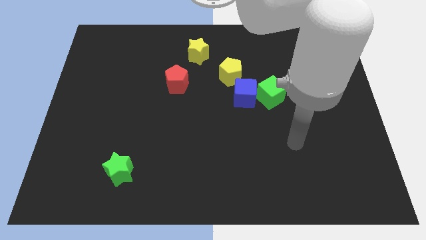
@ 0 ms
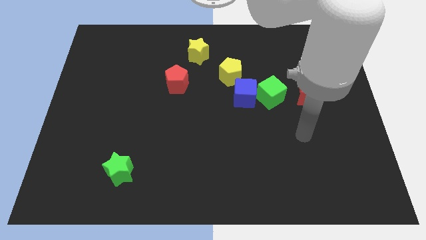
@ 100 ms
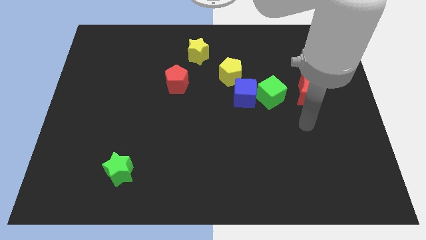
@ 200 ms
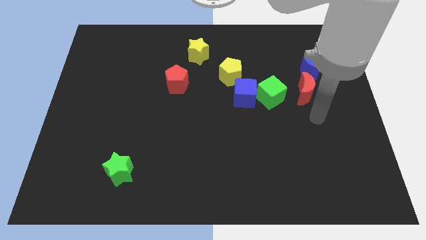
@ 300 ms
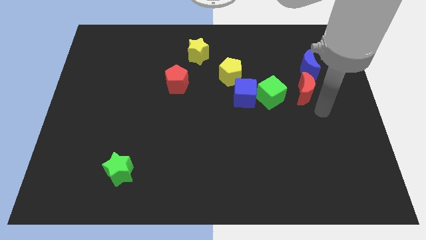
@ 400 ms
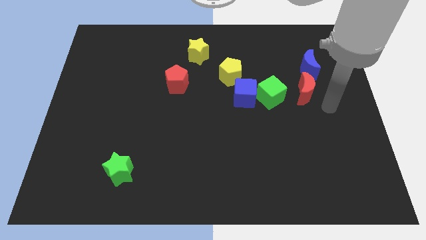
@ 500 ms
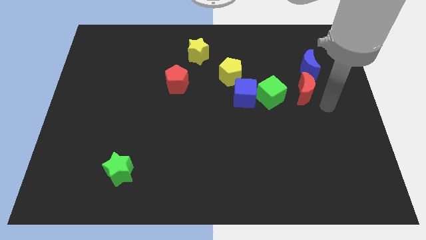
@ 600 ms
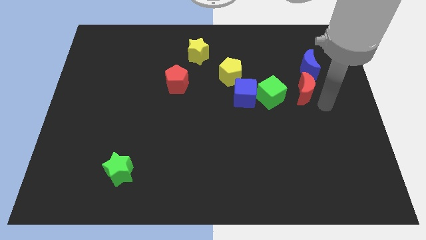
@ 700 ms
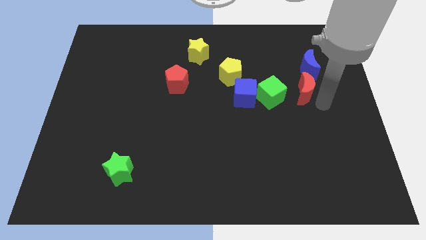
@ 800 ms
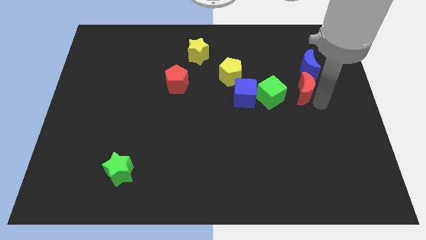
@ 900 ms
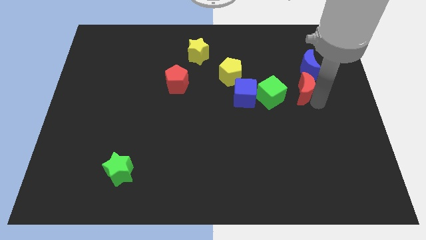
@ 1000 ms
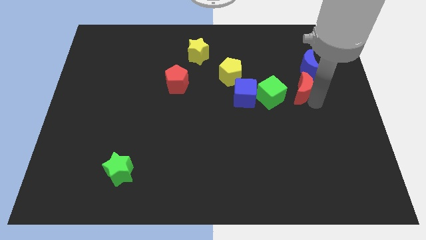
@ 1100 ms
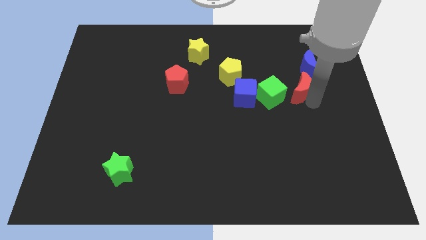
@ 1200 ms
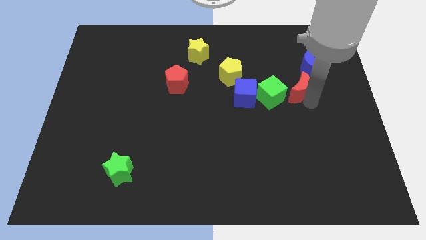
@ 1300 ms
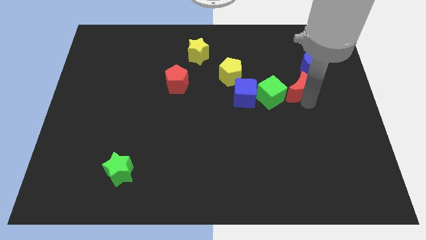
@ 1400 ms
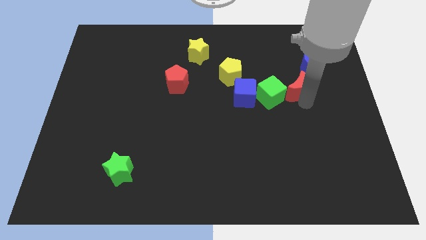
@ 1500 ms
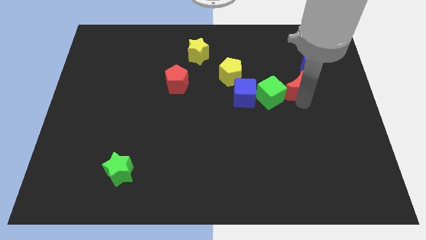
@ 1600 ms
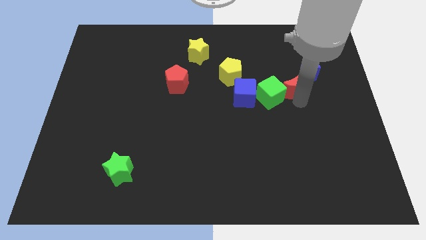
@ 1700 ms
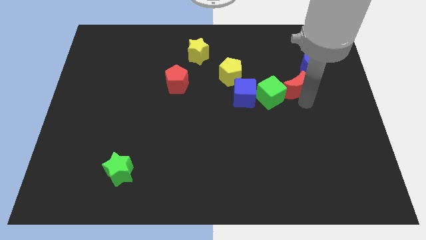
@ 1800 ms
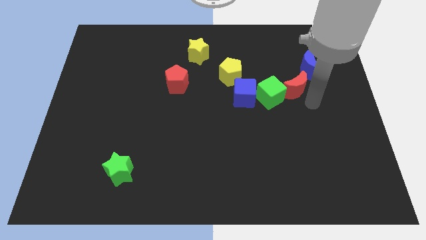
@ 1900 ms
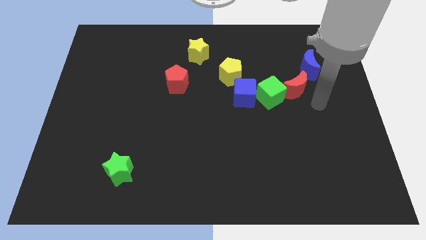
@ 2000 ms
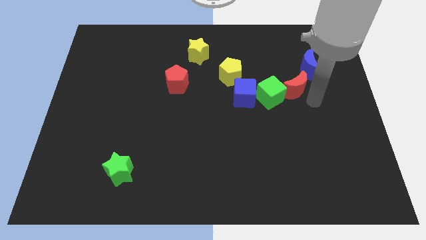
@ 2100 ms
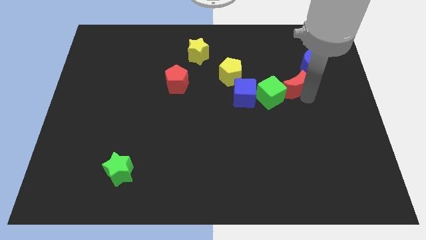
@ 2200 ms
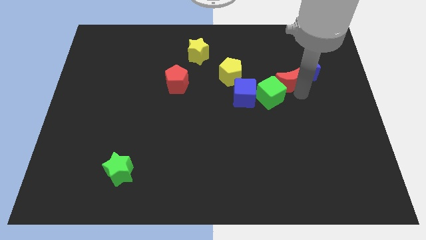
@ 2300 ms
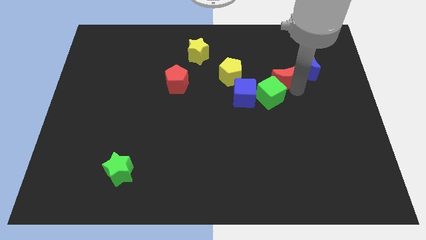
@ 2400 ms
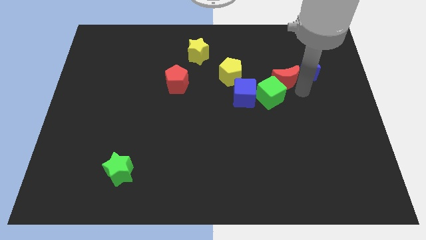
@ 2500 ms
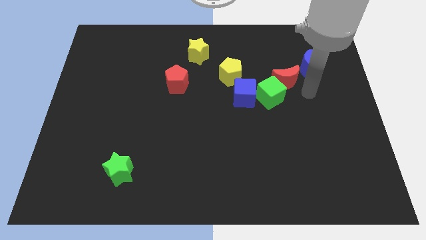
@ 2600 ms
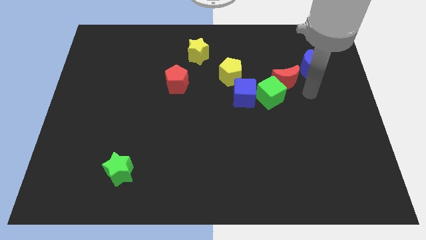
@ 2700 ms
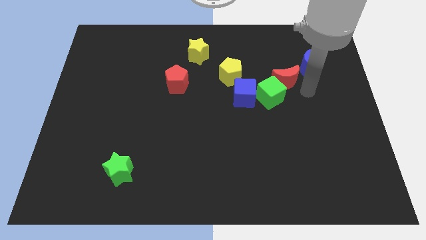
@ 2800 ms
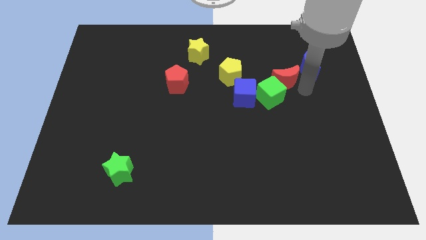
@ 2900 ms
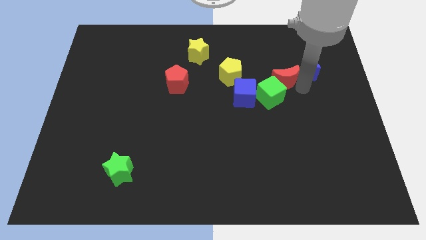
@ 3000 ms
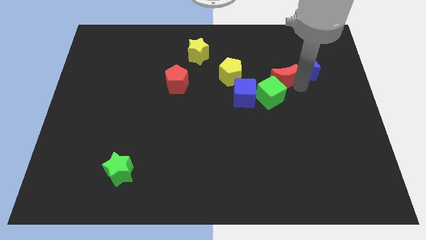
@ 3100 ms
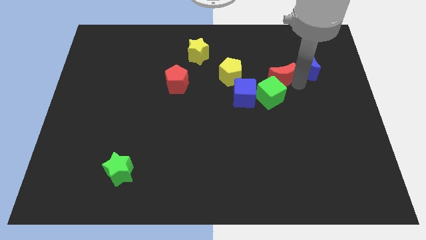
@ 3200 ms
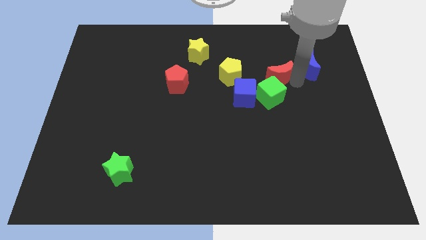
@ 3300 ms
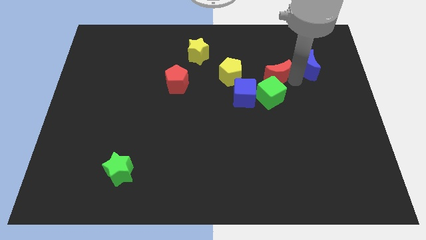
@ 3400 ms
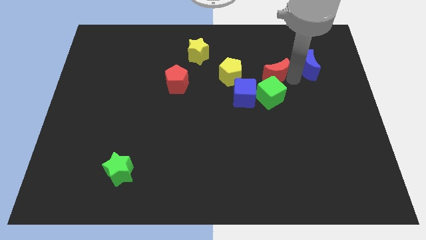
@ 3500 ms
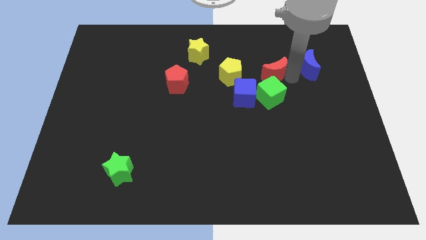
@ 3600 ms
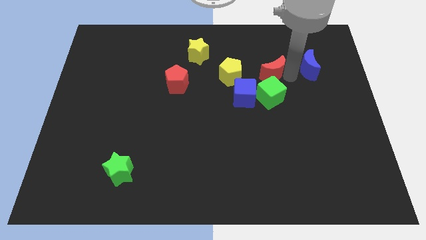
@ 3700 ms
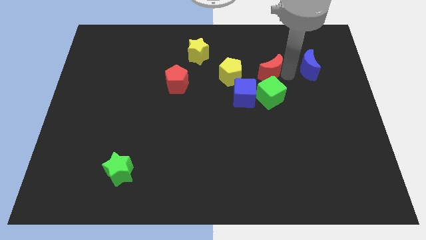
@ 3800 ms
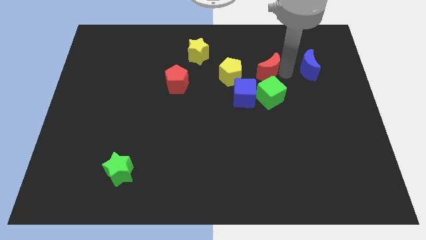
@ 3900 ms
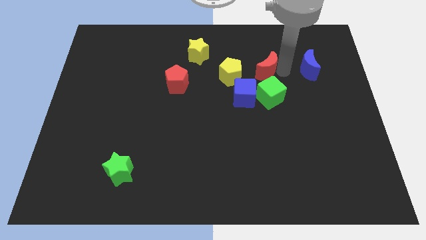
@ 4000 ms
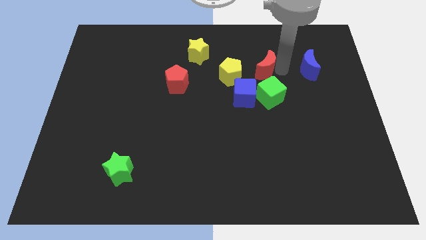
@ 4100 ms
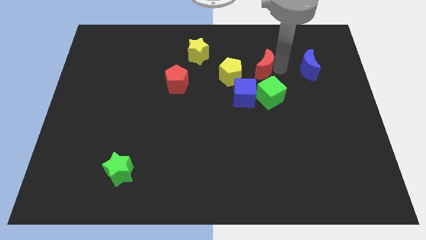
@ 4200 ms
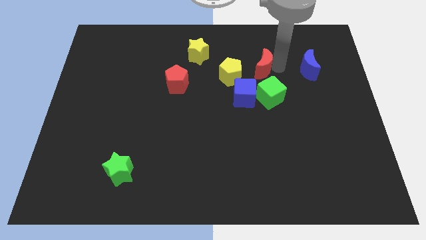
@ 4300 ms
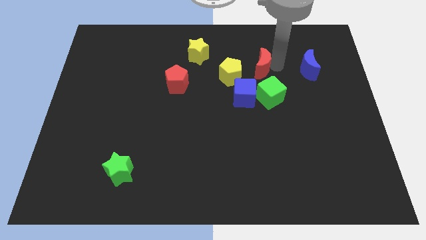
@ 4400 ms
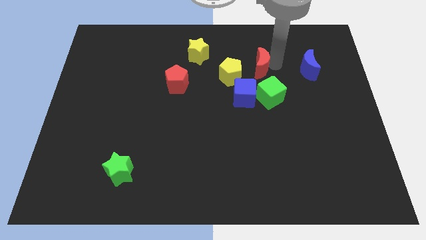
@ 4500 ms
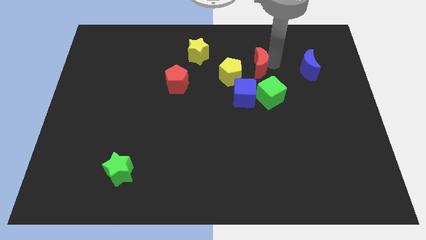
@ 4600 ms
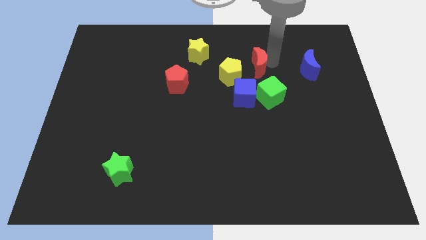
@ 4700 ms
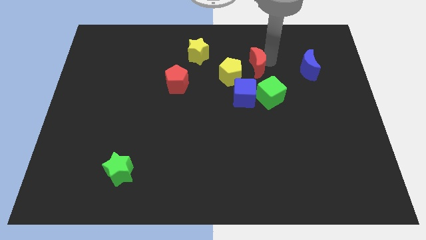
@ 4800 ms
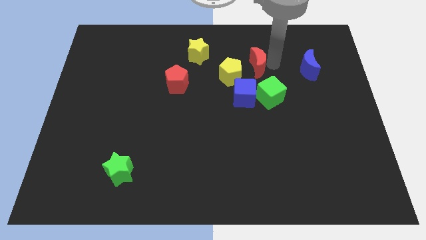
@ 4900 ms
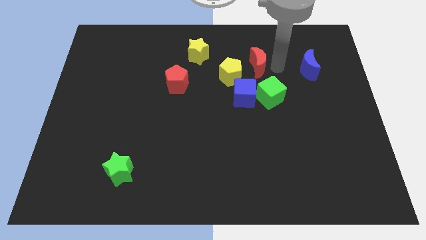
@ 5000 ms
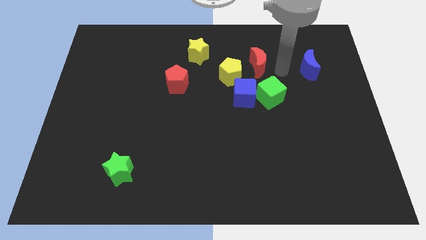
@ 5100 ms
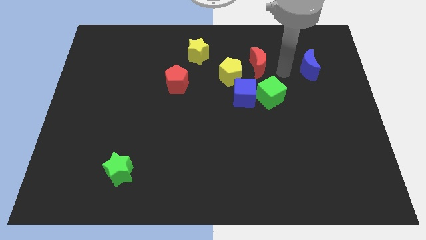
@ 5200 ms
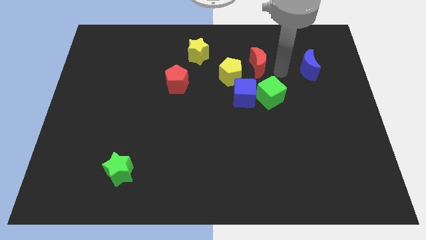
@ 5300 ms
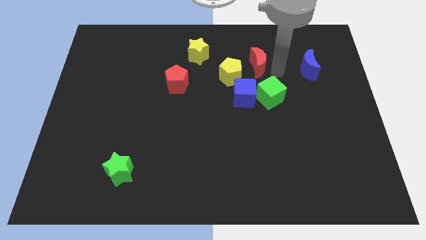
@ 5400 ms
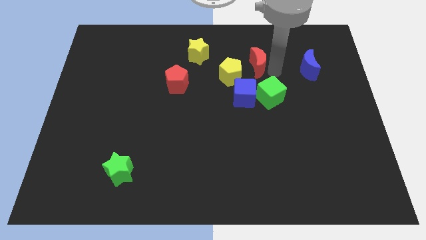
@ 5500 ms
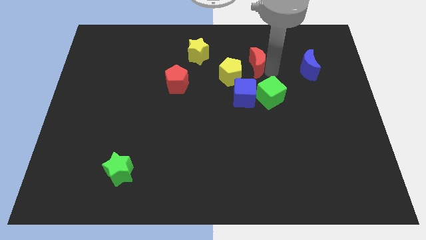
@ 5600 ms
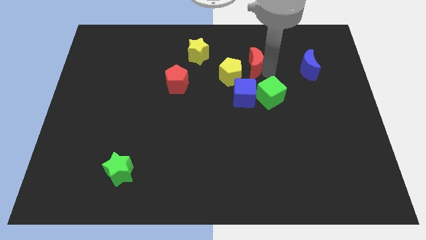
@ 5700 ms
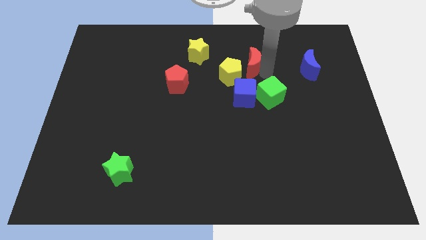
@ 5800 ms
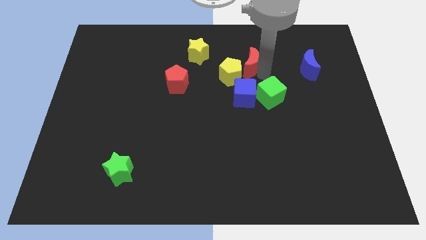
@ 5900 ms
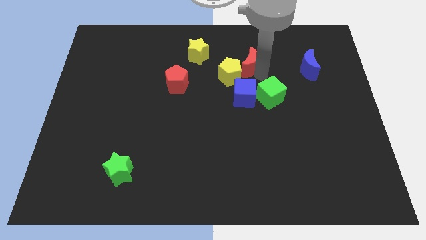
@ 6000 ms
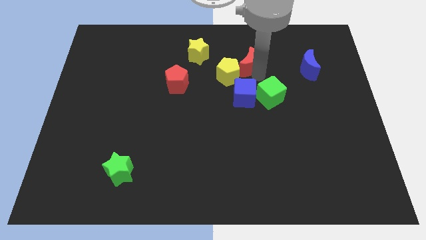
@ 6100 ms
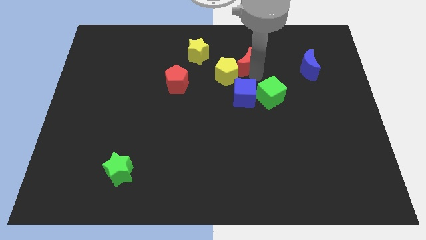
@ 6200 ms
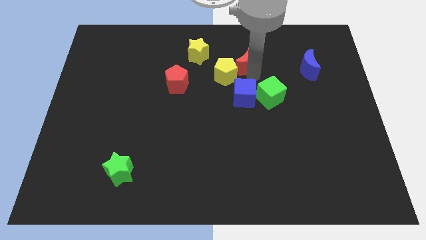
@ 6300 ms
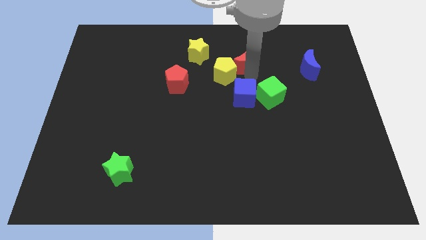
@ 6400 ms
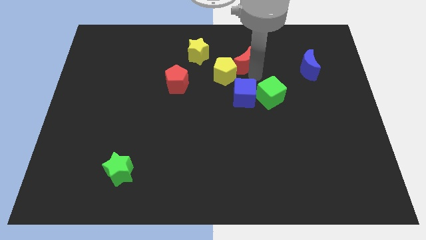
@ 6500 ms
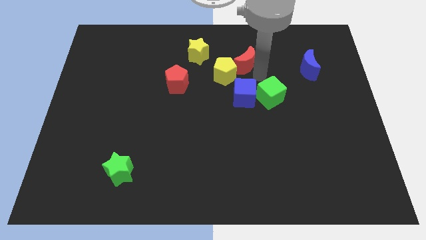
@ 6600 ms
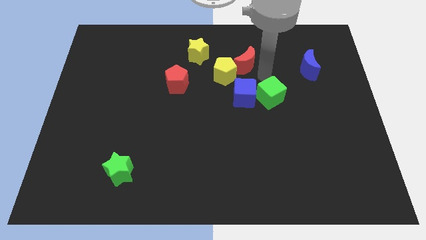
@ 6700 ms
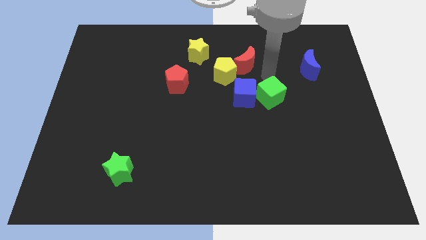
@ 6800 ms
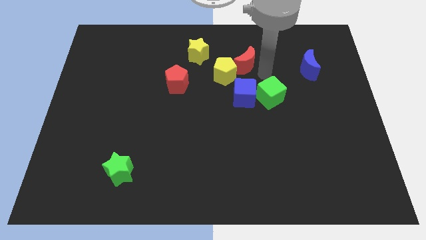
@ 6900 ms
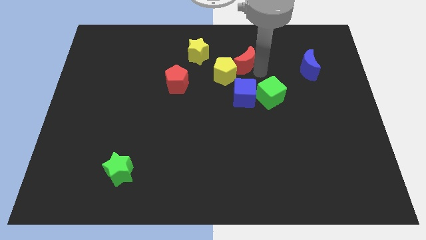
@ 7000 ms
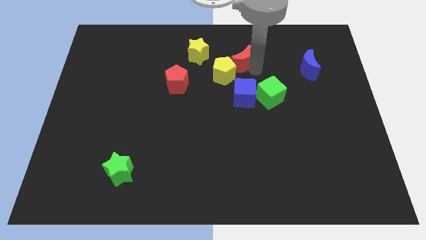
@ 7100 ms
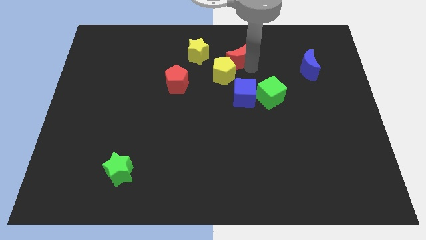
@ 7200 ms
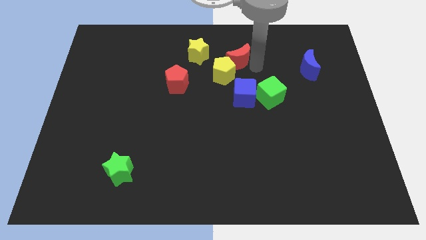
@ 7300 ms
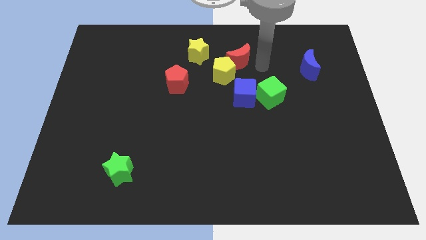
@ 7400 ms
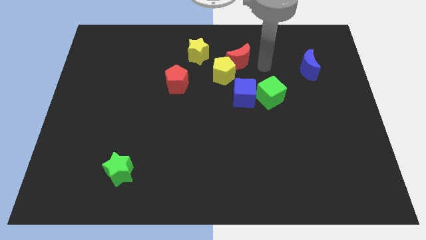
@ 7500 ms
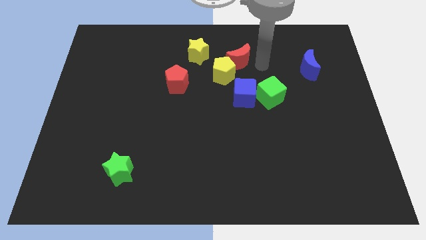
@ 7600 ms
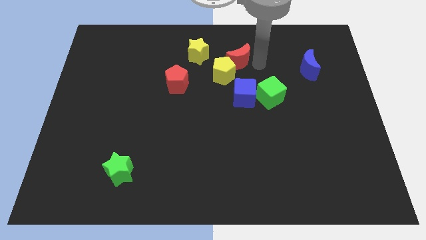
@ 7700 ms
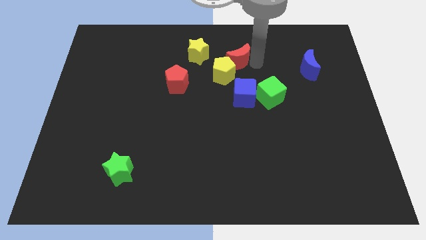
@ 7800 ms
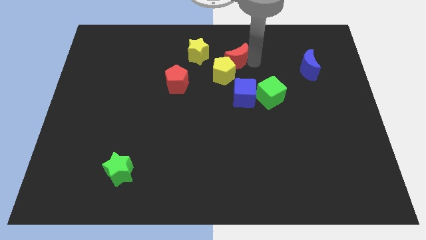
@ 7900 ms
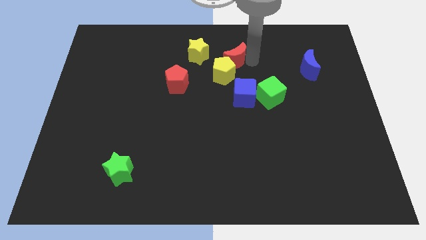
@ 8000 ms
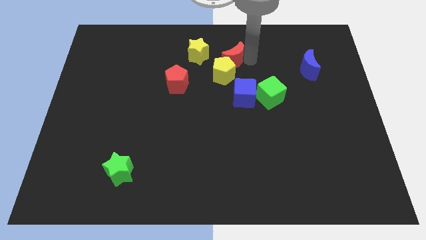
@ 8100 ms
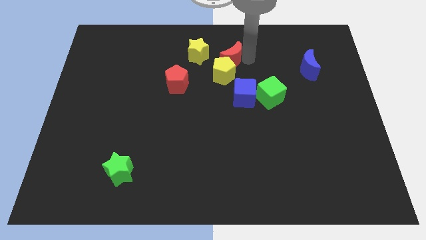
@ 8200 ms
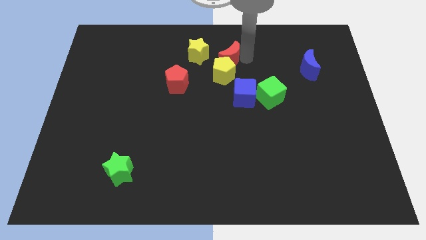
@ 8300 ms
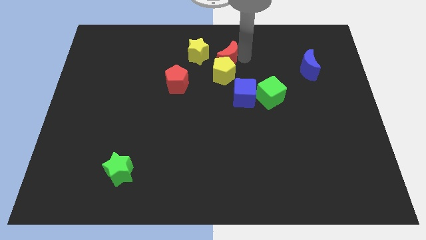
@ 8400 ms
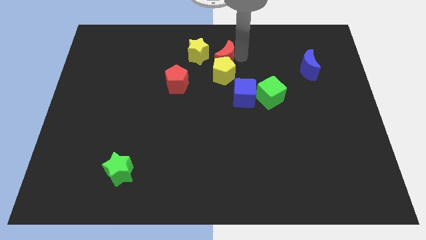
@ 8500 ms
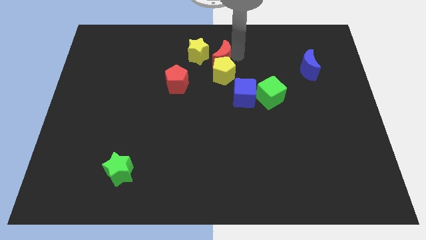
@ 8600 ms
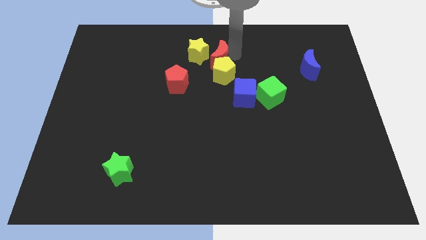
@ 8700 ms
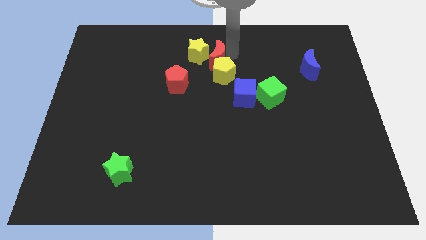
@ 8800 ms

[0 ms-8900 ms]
slide the red moon to the yellow star
